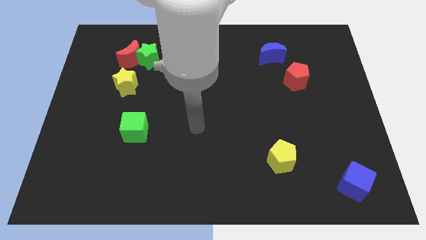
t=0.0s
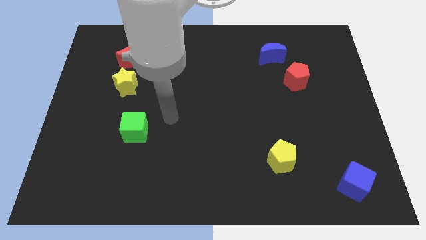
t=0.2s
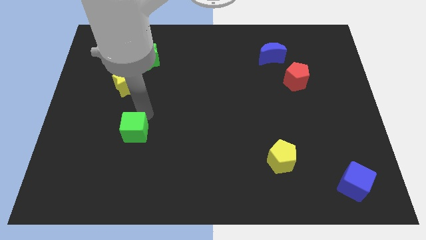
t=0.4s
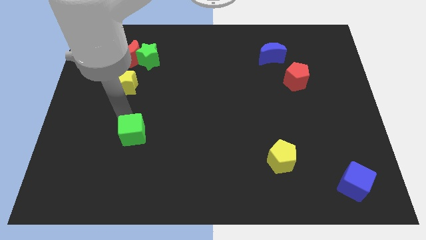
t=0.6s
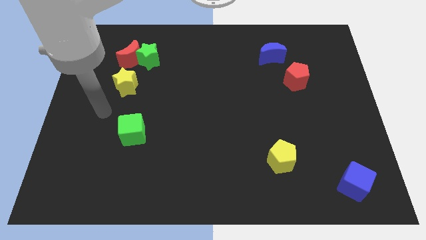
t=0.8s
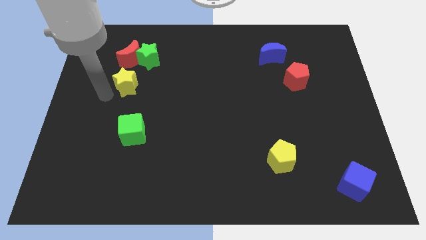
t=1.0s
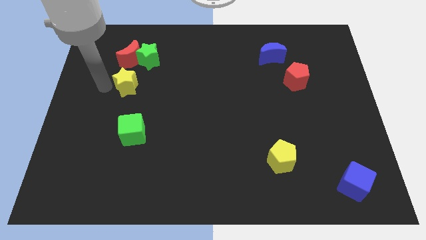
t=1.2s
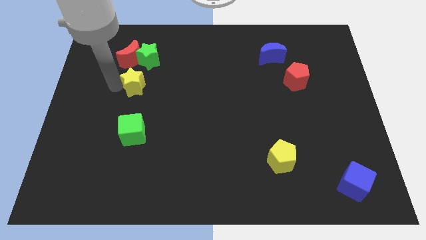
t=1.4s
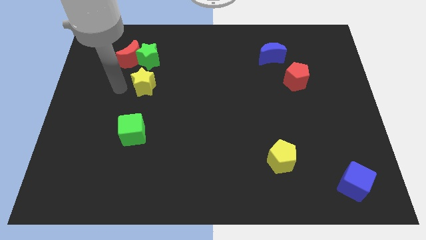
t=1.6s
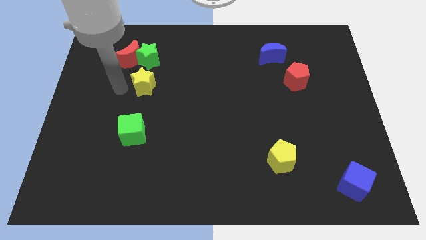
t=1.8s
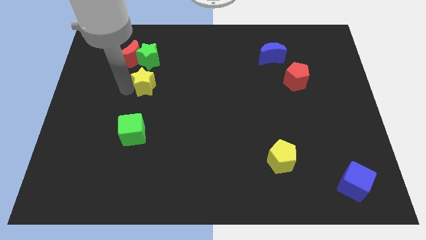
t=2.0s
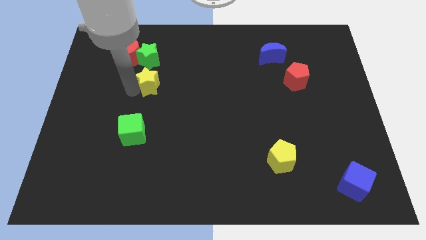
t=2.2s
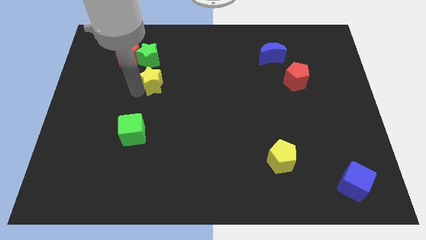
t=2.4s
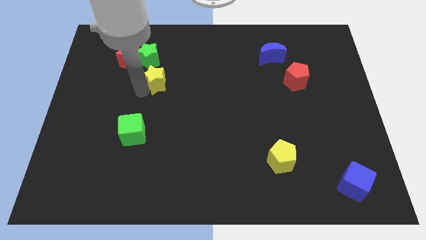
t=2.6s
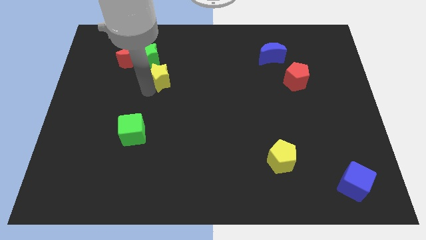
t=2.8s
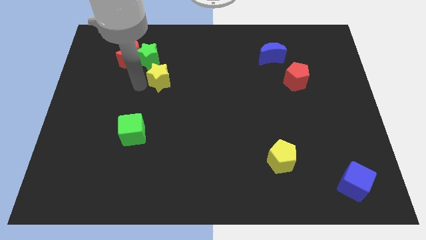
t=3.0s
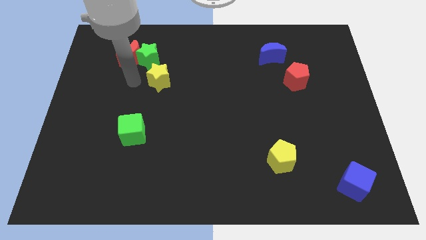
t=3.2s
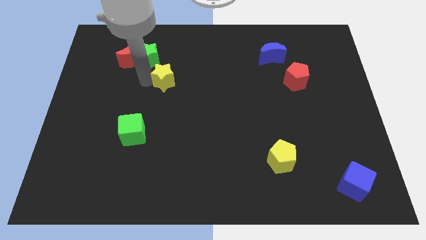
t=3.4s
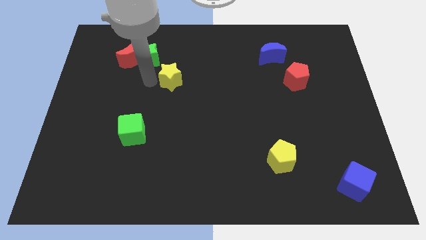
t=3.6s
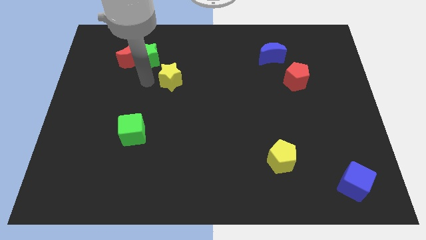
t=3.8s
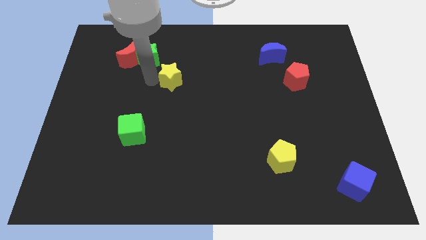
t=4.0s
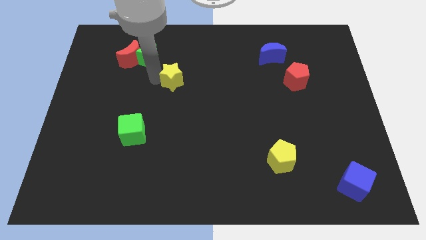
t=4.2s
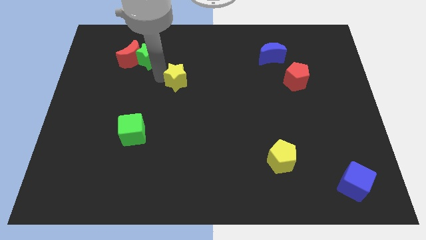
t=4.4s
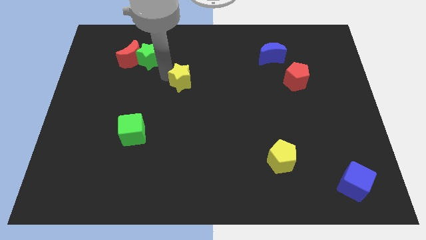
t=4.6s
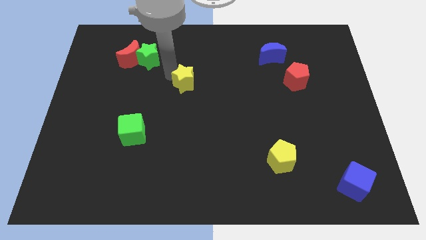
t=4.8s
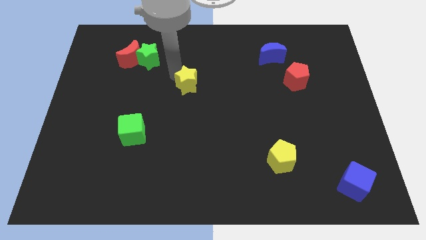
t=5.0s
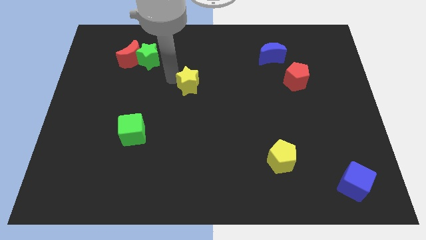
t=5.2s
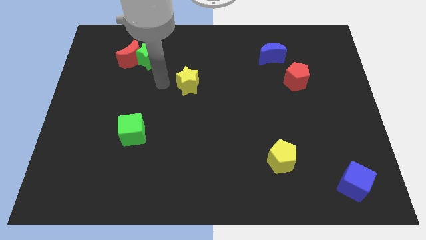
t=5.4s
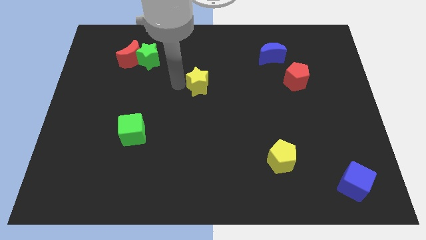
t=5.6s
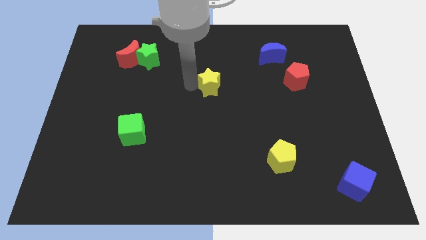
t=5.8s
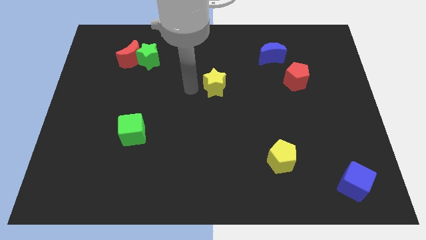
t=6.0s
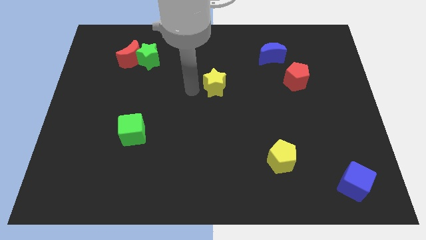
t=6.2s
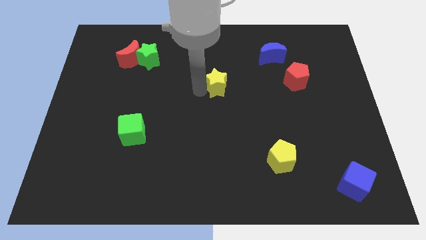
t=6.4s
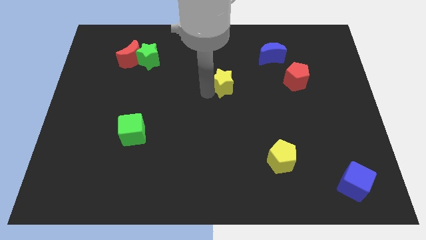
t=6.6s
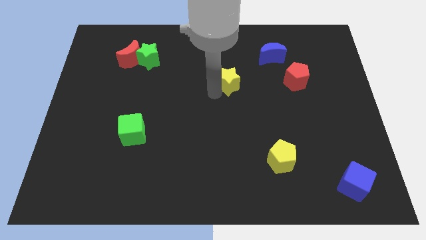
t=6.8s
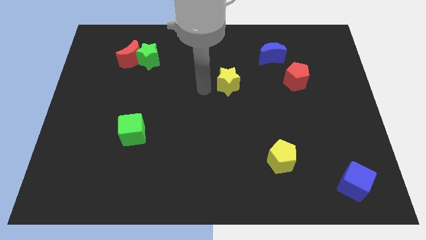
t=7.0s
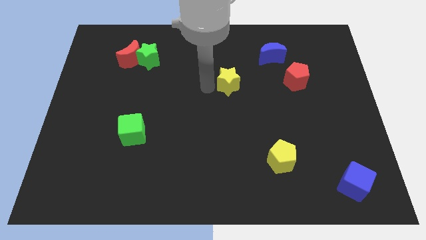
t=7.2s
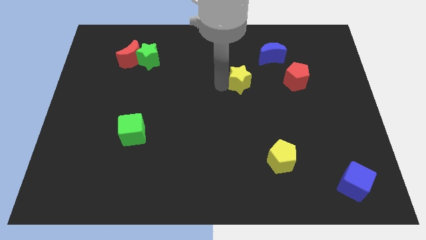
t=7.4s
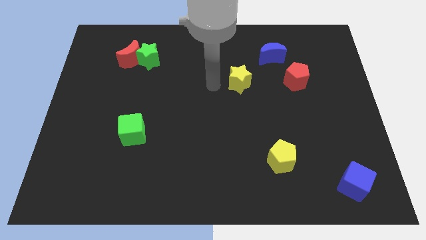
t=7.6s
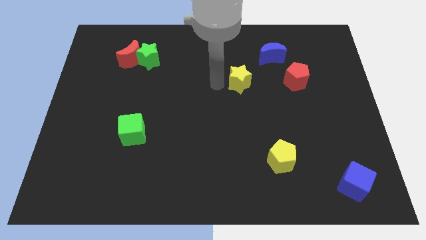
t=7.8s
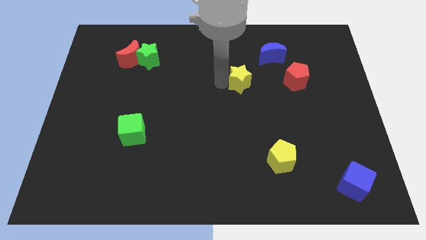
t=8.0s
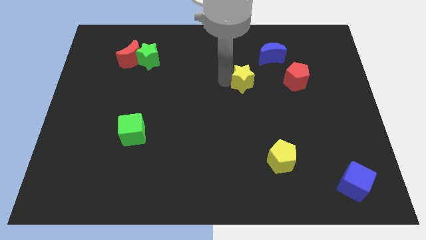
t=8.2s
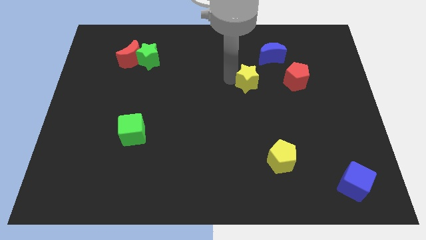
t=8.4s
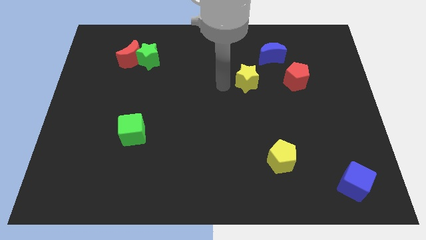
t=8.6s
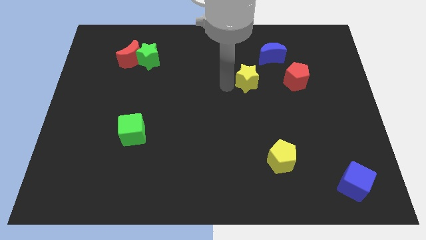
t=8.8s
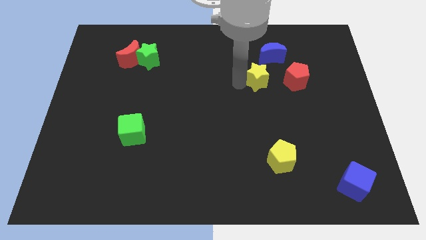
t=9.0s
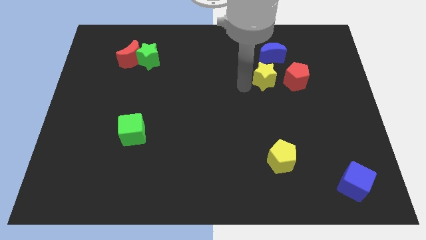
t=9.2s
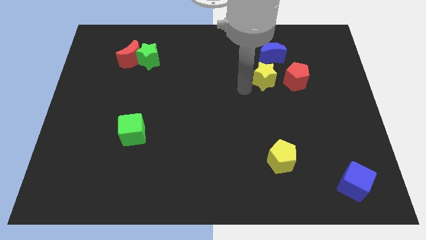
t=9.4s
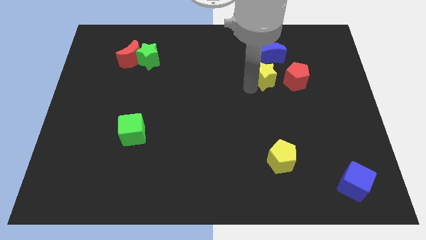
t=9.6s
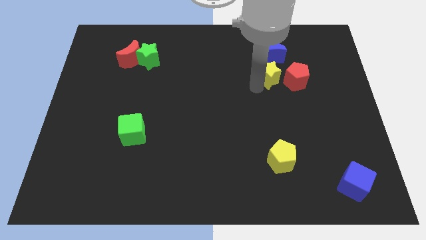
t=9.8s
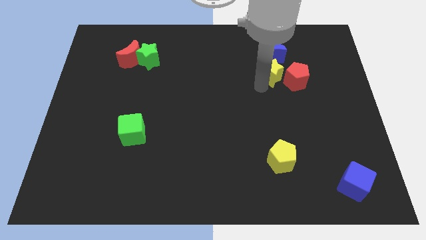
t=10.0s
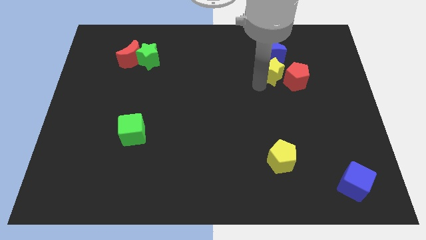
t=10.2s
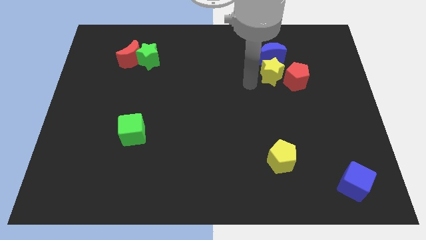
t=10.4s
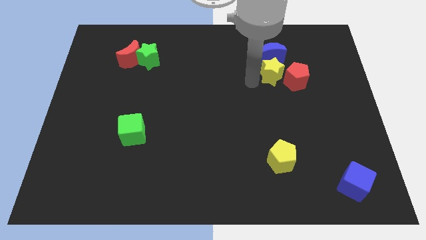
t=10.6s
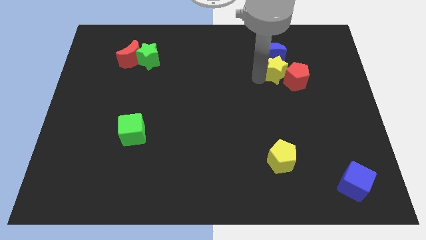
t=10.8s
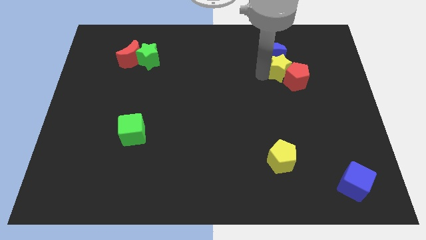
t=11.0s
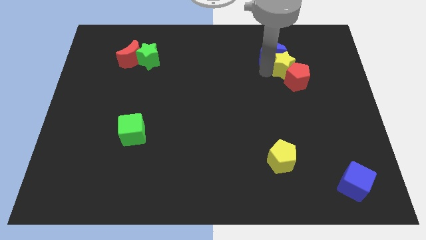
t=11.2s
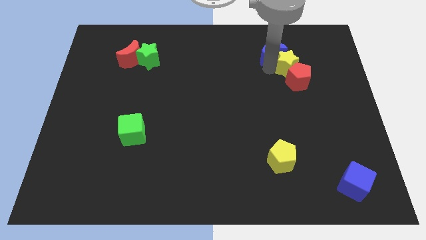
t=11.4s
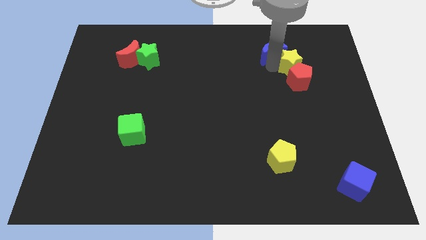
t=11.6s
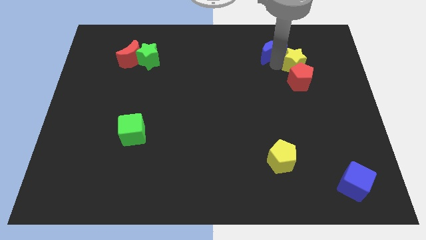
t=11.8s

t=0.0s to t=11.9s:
slide the yellow star to the top right of the red pentagon

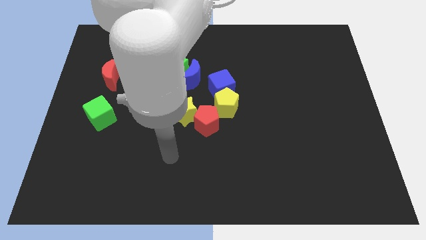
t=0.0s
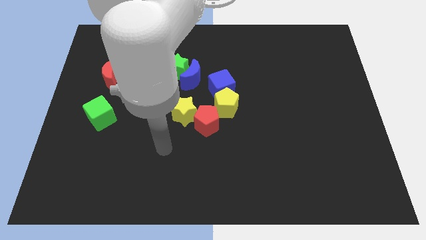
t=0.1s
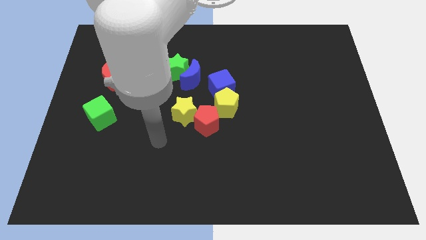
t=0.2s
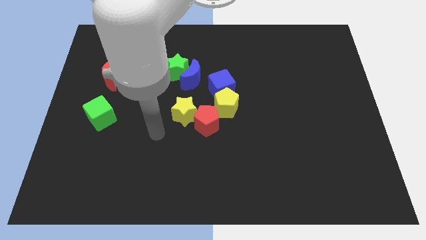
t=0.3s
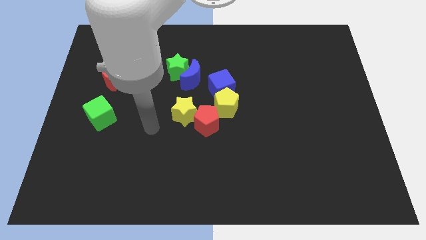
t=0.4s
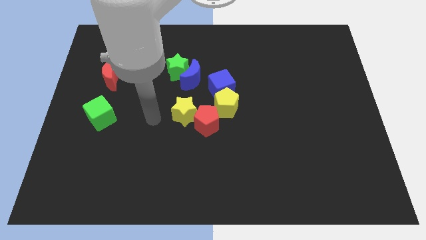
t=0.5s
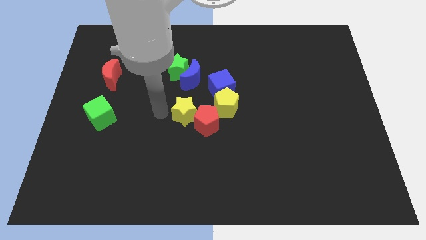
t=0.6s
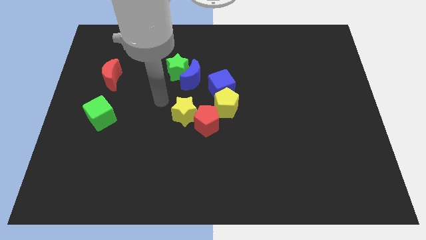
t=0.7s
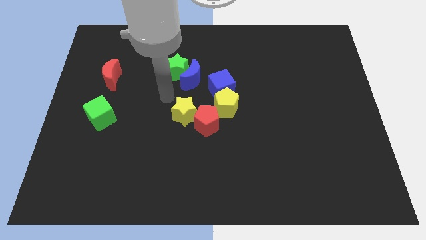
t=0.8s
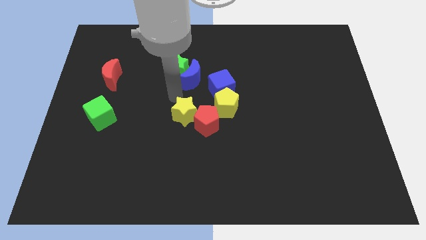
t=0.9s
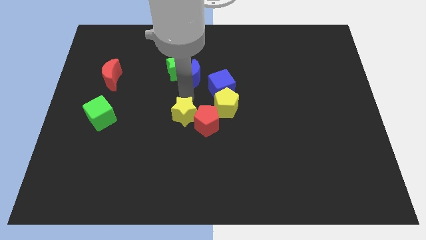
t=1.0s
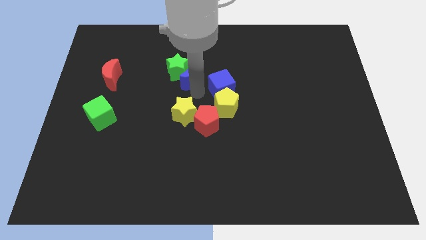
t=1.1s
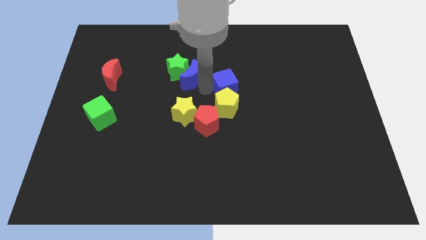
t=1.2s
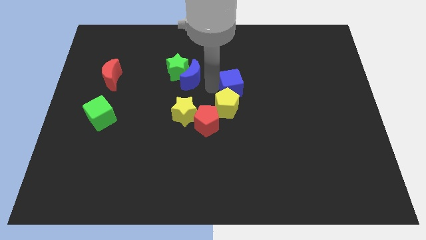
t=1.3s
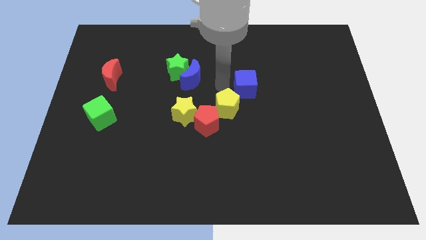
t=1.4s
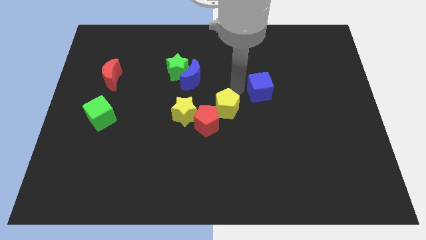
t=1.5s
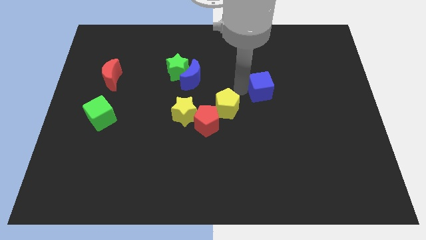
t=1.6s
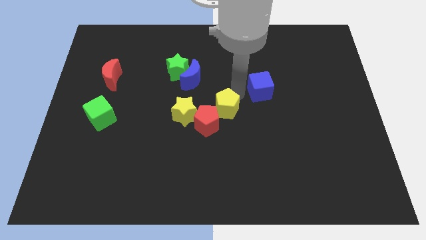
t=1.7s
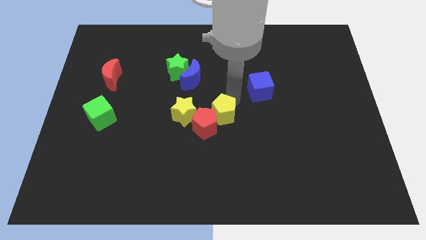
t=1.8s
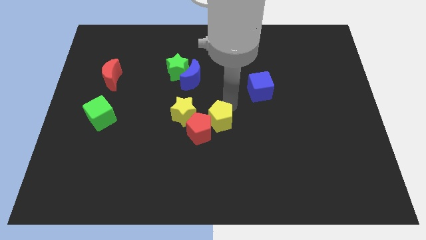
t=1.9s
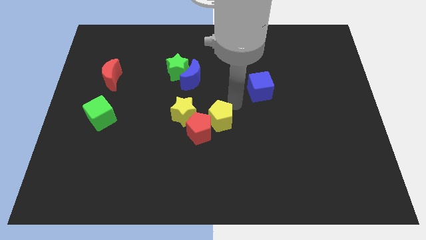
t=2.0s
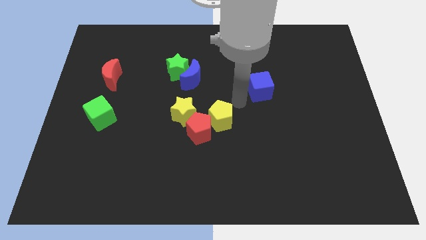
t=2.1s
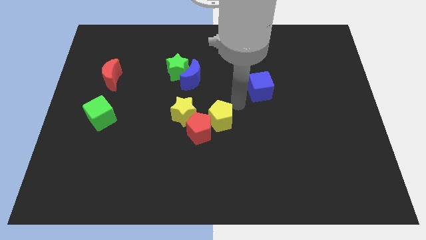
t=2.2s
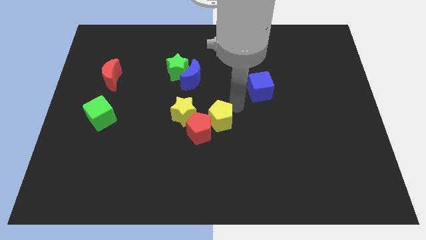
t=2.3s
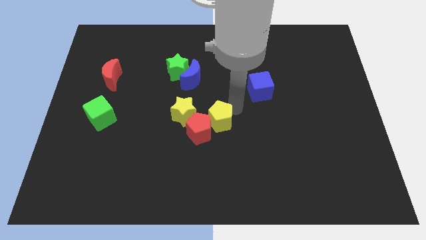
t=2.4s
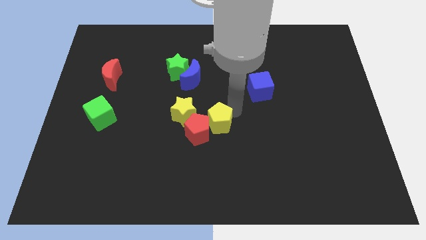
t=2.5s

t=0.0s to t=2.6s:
put the yellow pentagon to the bottom right of the yellow star
